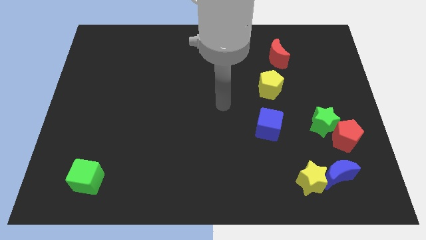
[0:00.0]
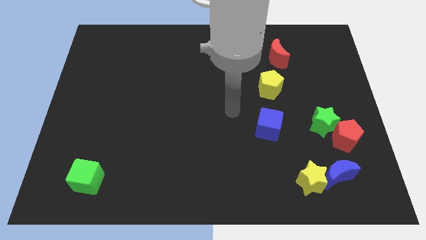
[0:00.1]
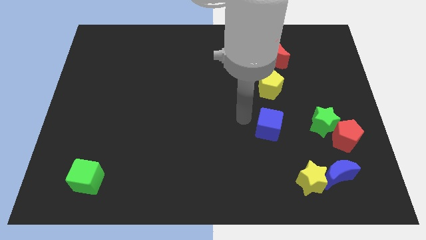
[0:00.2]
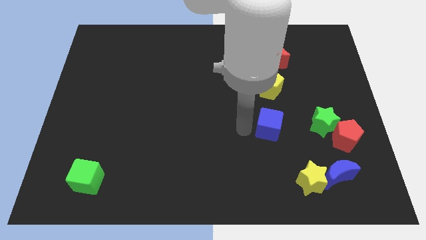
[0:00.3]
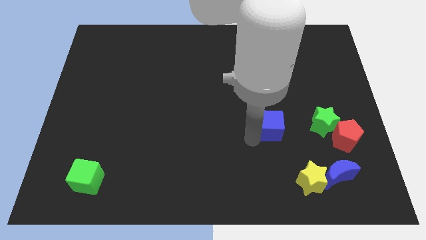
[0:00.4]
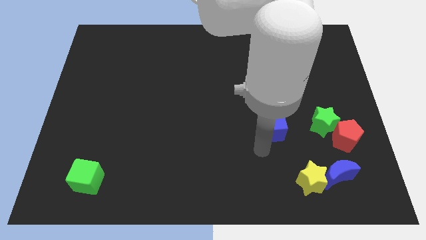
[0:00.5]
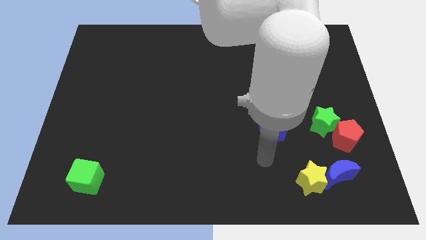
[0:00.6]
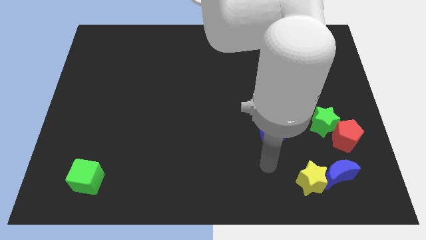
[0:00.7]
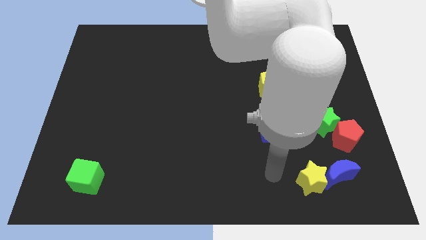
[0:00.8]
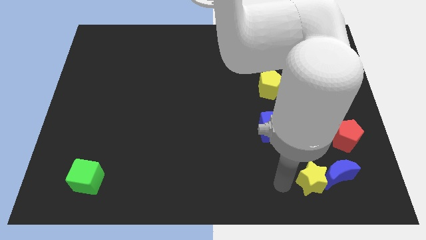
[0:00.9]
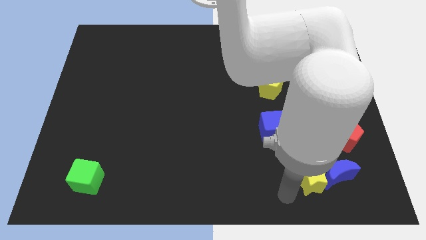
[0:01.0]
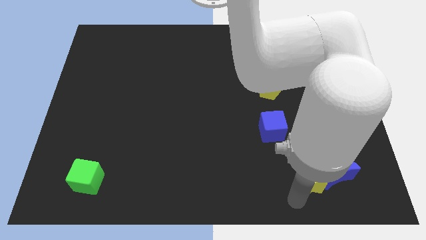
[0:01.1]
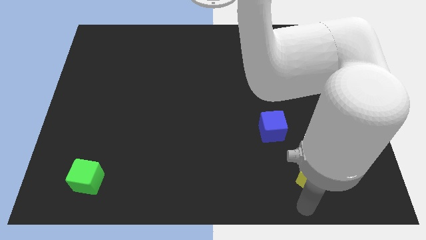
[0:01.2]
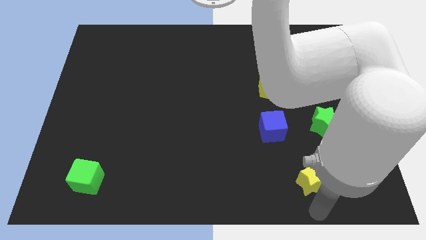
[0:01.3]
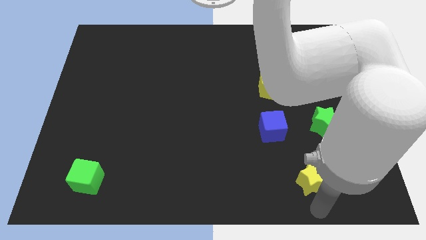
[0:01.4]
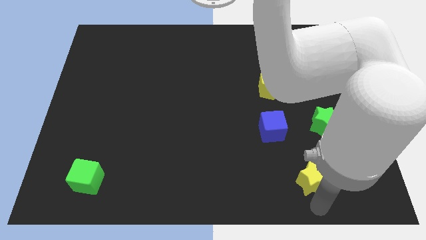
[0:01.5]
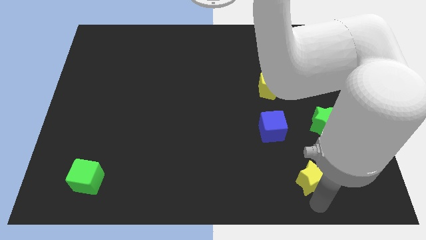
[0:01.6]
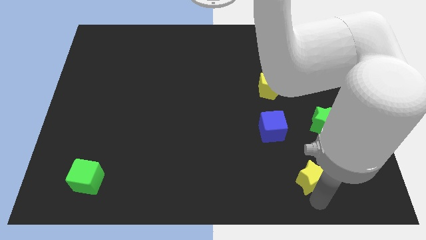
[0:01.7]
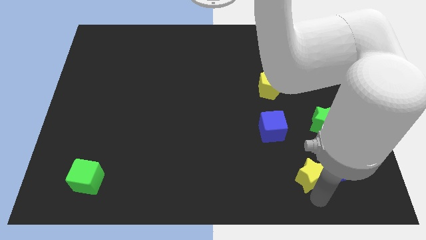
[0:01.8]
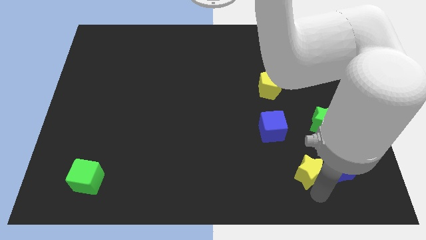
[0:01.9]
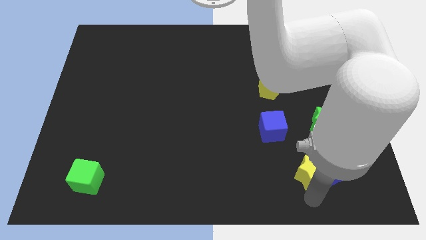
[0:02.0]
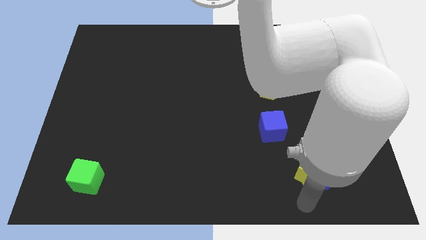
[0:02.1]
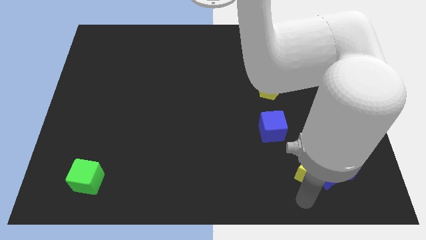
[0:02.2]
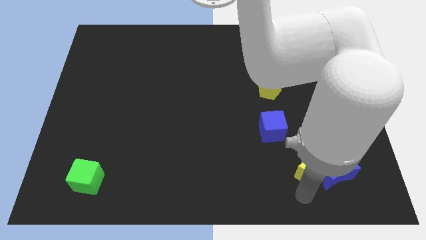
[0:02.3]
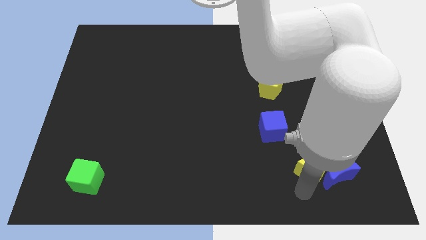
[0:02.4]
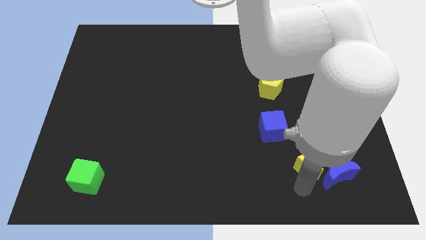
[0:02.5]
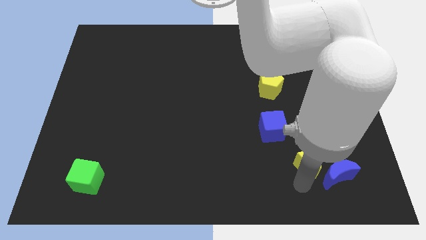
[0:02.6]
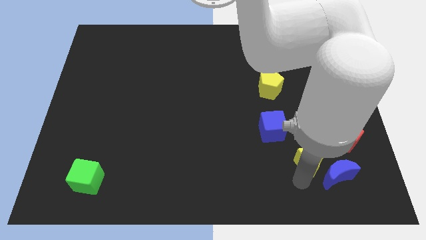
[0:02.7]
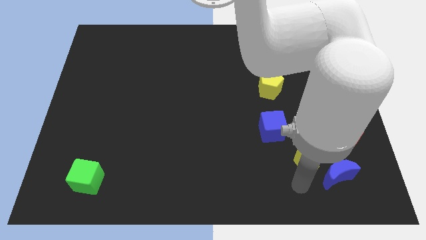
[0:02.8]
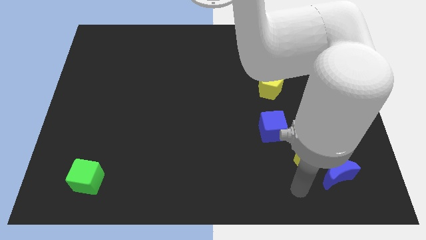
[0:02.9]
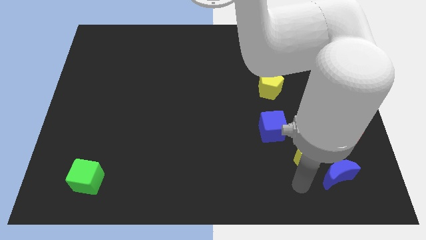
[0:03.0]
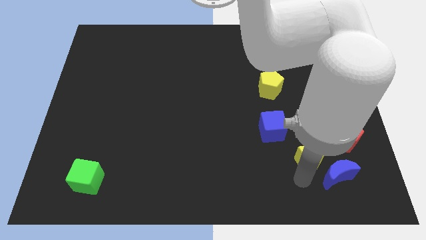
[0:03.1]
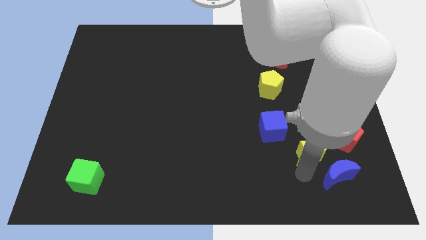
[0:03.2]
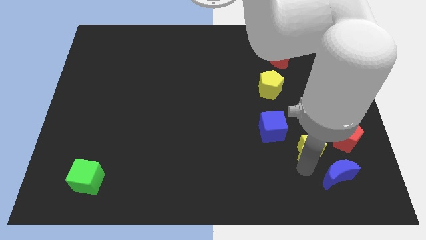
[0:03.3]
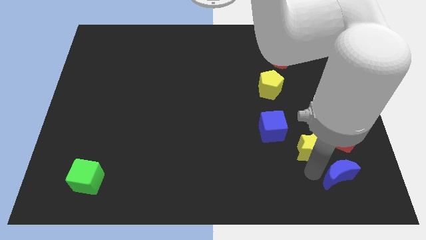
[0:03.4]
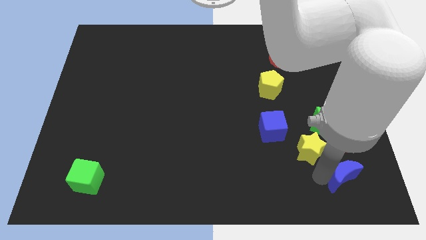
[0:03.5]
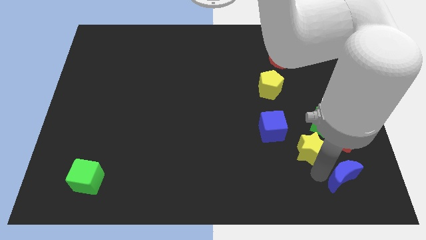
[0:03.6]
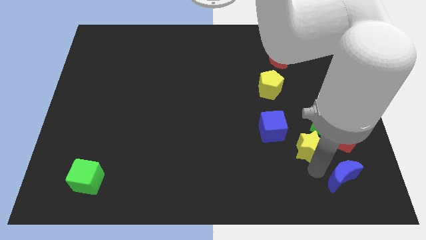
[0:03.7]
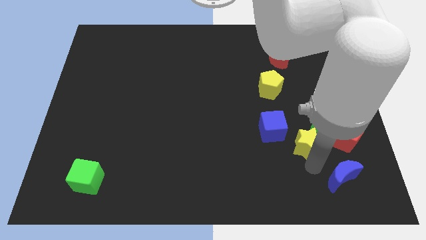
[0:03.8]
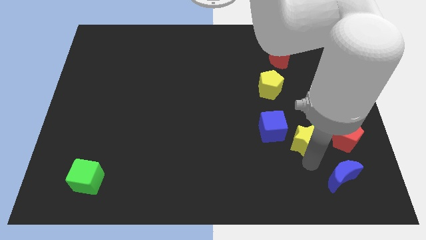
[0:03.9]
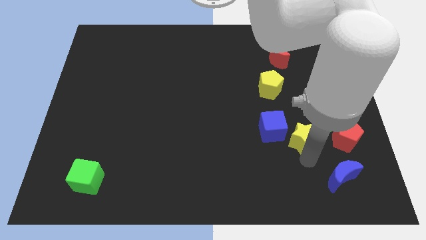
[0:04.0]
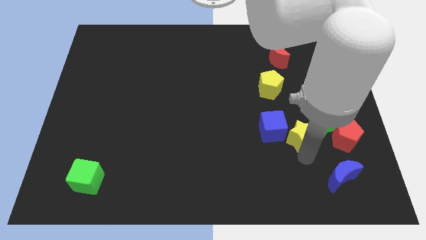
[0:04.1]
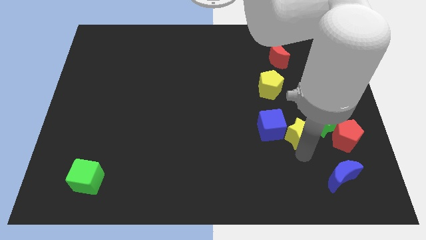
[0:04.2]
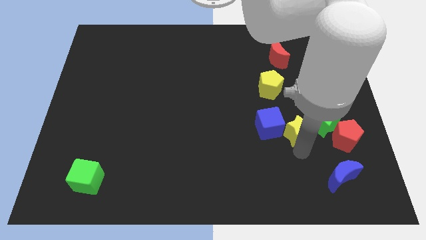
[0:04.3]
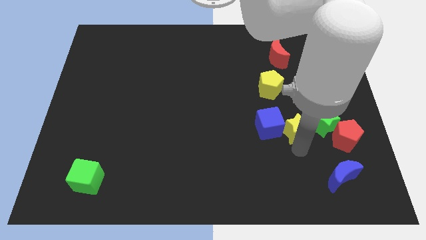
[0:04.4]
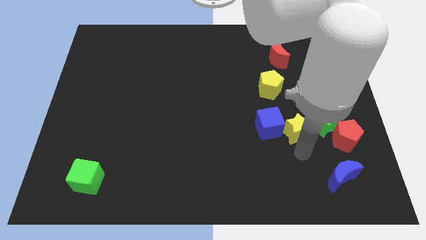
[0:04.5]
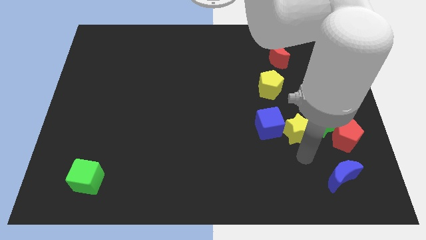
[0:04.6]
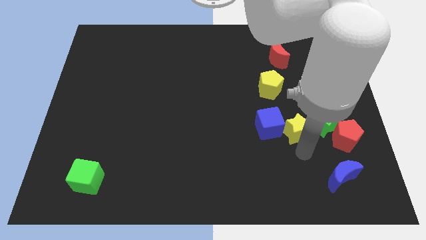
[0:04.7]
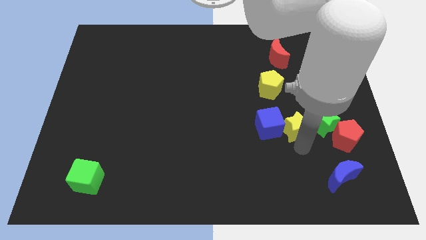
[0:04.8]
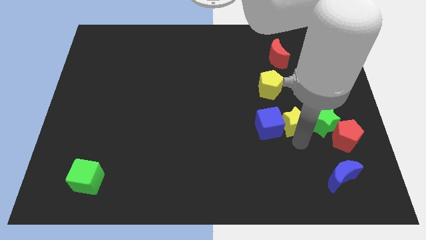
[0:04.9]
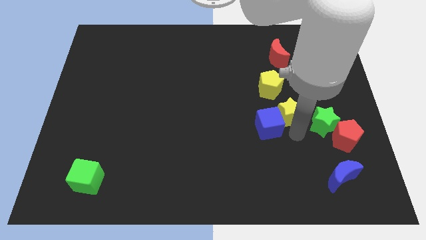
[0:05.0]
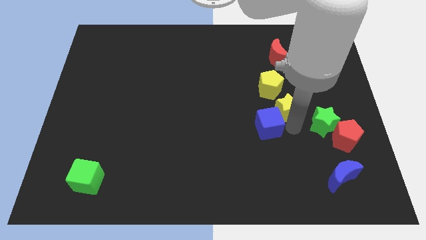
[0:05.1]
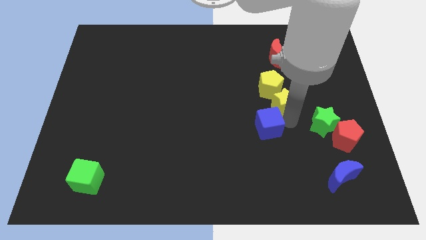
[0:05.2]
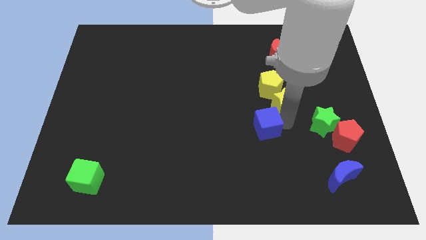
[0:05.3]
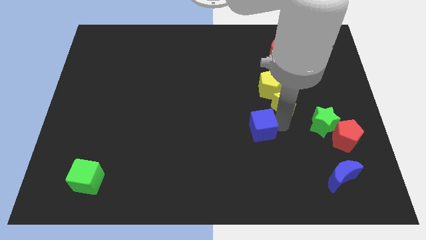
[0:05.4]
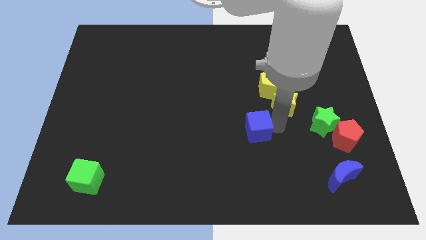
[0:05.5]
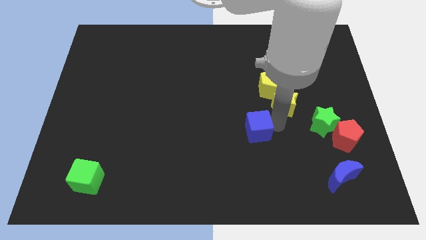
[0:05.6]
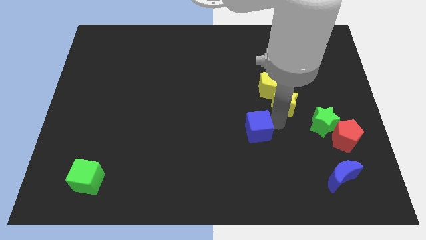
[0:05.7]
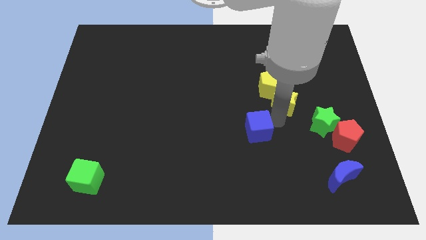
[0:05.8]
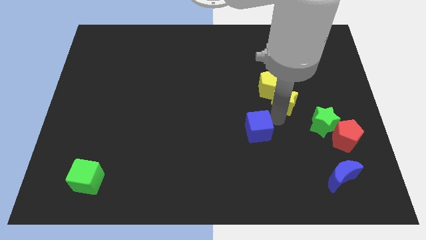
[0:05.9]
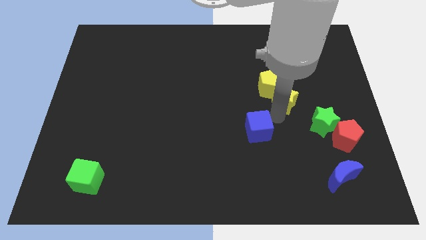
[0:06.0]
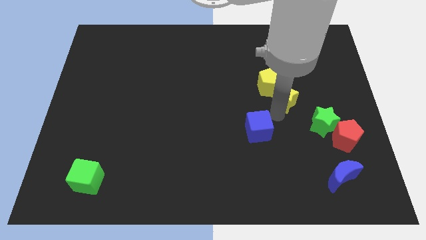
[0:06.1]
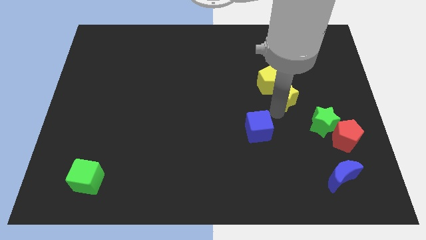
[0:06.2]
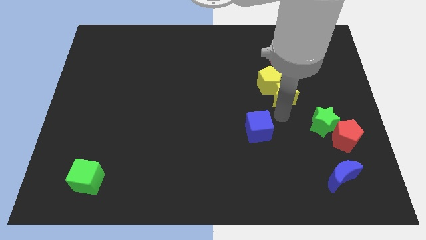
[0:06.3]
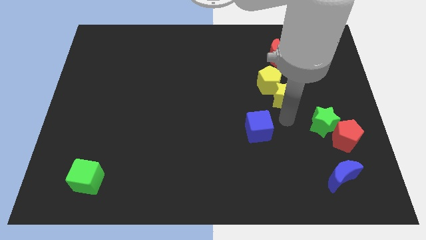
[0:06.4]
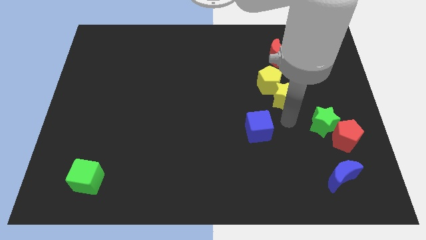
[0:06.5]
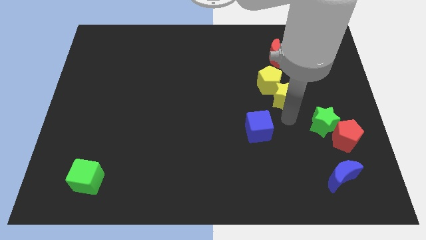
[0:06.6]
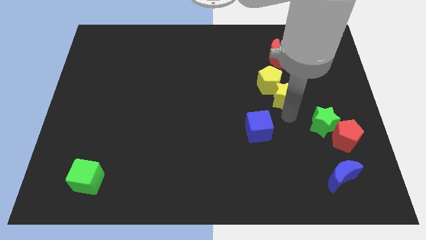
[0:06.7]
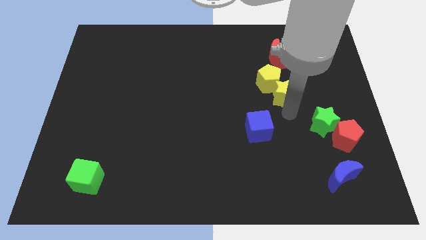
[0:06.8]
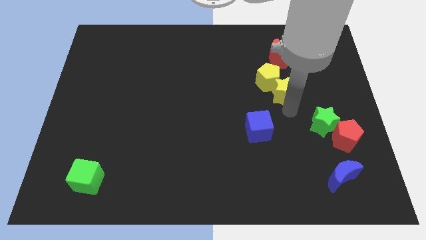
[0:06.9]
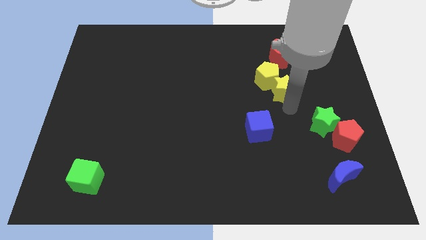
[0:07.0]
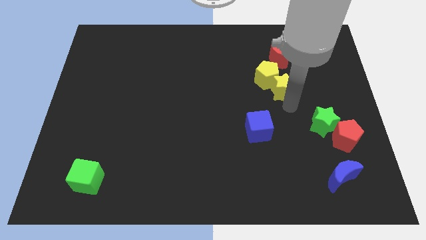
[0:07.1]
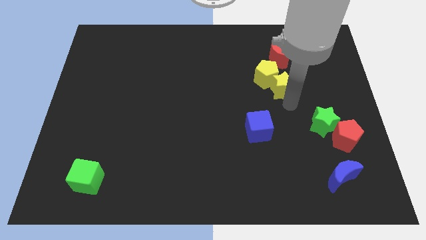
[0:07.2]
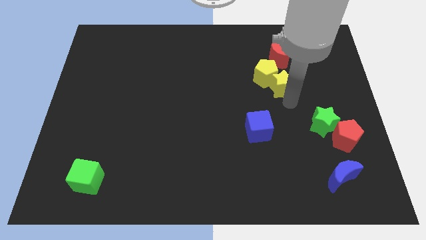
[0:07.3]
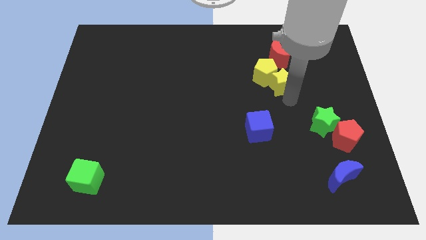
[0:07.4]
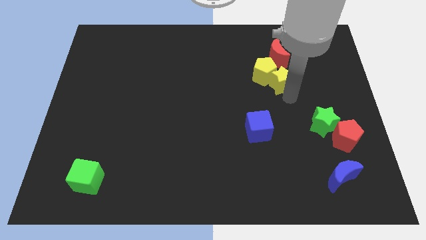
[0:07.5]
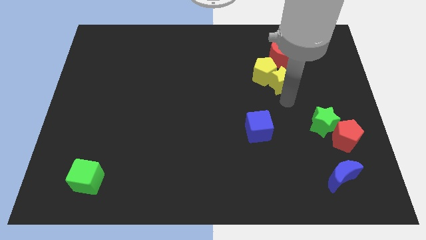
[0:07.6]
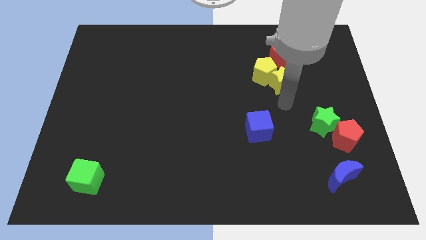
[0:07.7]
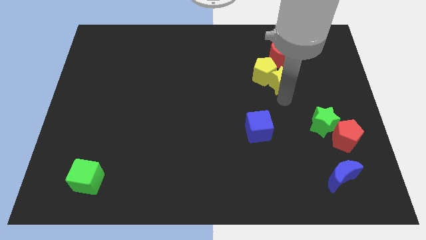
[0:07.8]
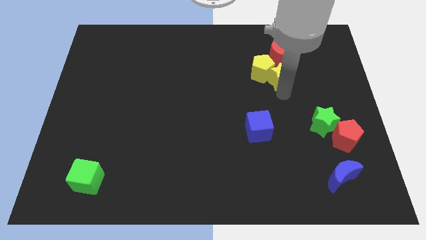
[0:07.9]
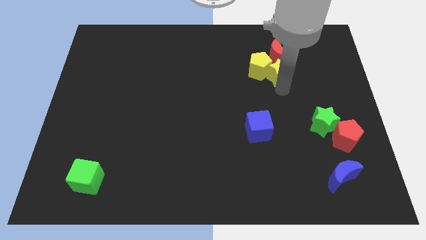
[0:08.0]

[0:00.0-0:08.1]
slide the yellow star to the red moon
